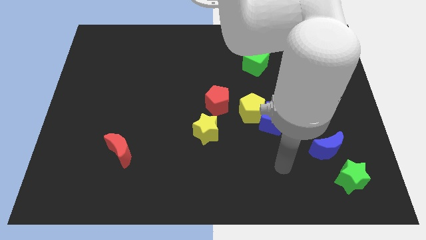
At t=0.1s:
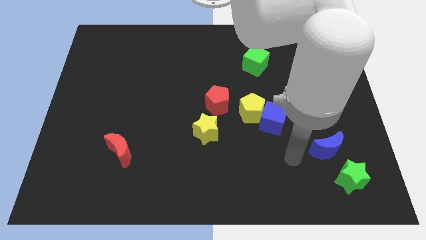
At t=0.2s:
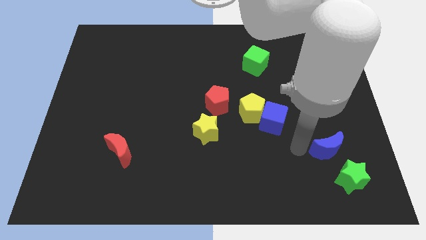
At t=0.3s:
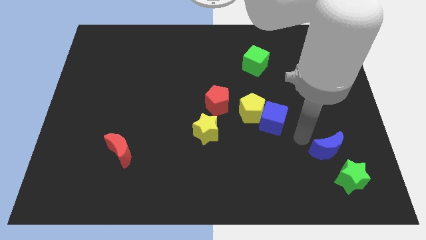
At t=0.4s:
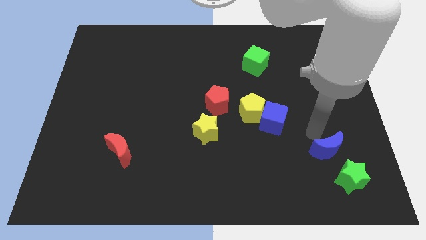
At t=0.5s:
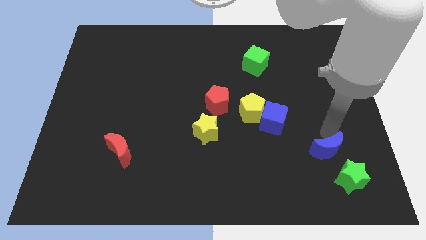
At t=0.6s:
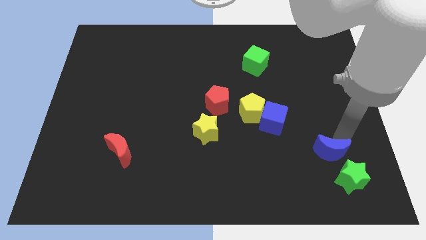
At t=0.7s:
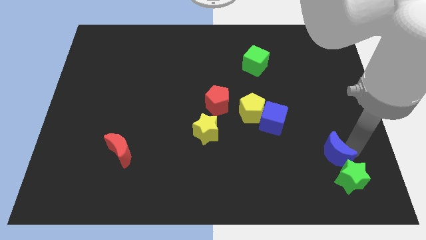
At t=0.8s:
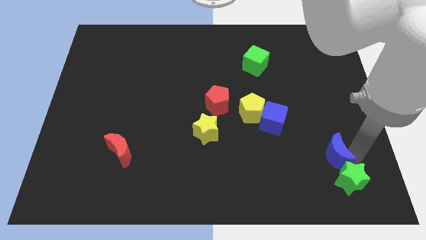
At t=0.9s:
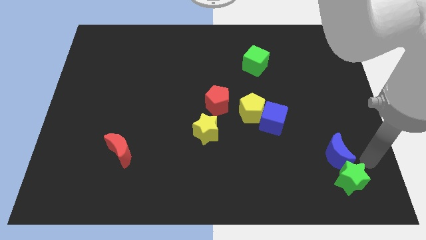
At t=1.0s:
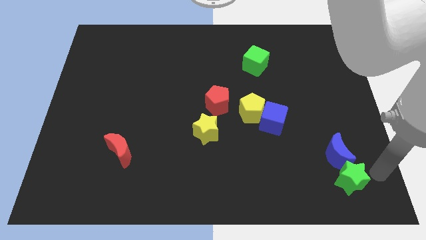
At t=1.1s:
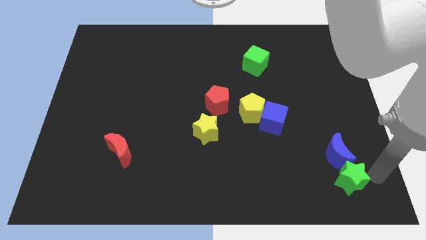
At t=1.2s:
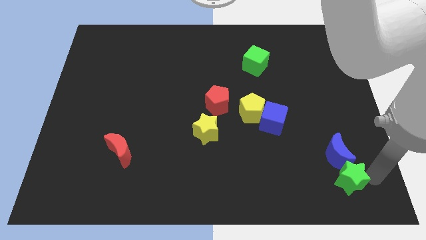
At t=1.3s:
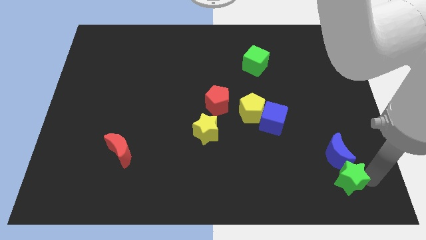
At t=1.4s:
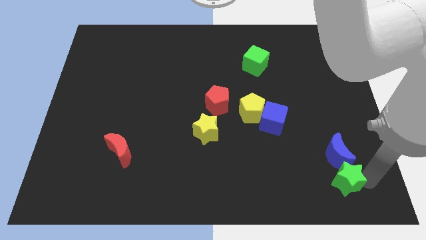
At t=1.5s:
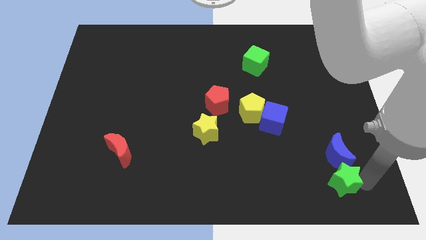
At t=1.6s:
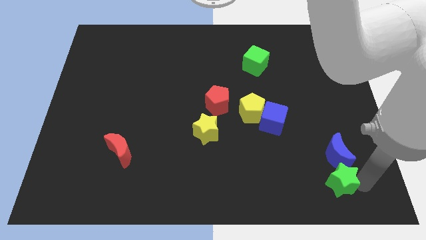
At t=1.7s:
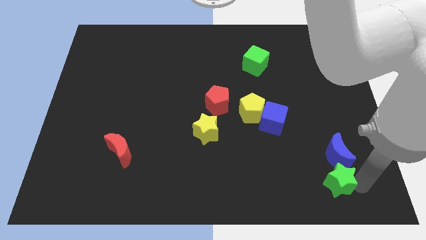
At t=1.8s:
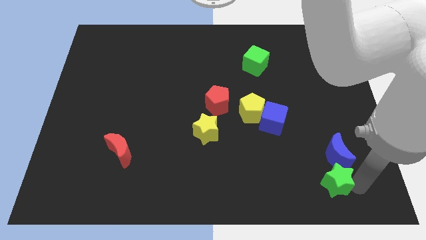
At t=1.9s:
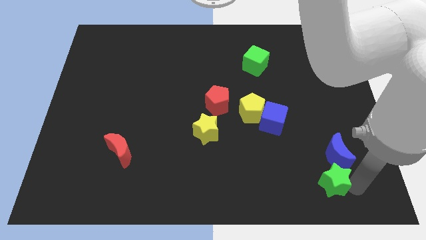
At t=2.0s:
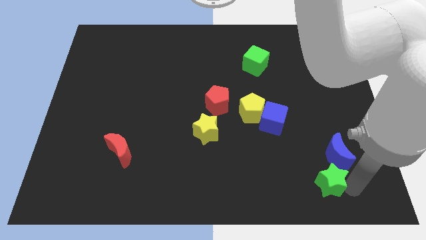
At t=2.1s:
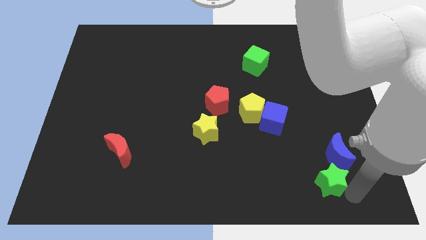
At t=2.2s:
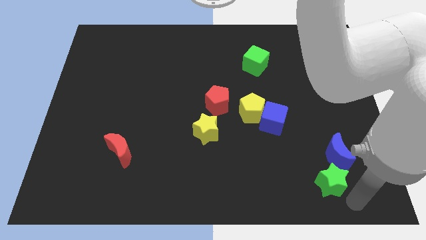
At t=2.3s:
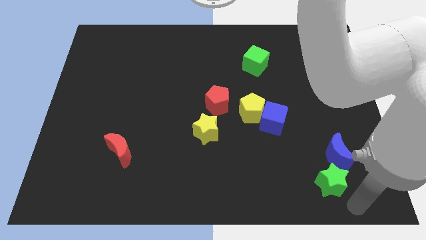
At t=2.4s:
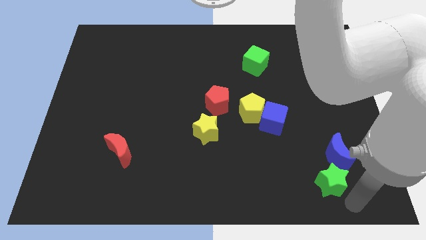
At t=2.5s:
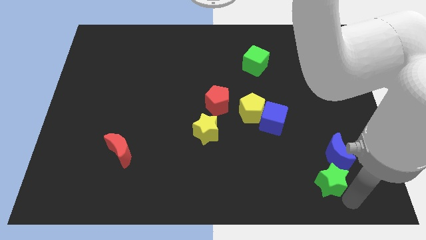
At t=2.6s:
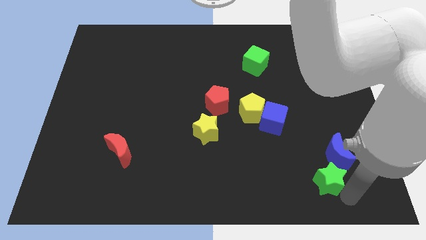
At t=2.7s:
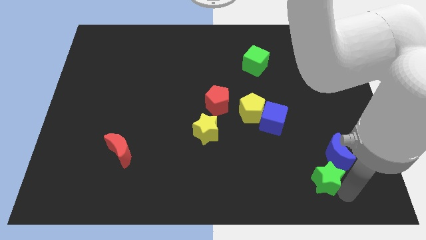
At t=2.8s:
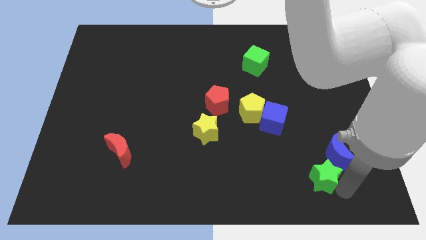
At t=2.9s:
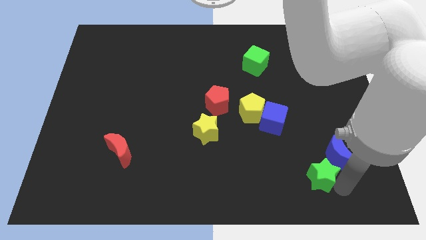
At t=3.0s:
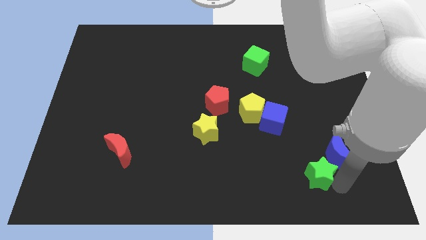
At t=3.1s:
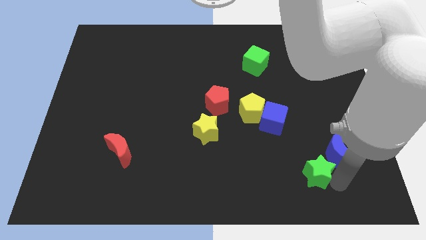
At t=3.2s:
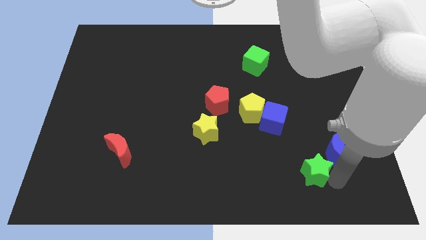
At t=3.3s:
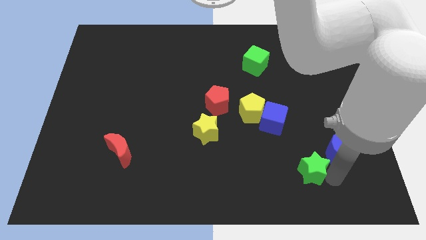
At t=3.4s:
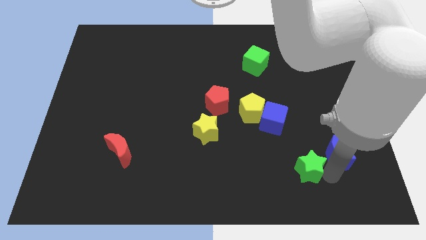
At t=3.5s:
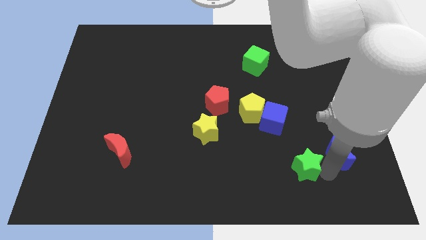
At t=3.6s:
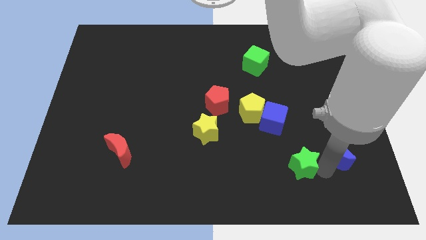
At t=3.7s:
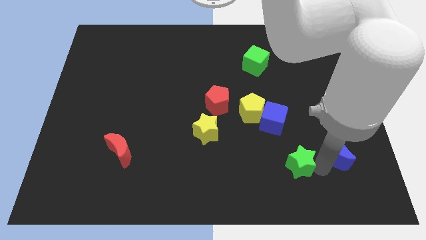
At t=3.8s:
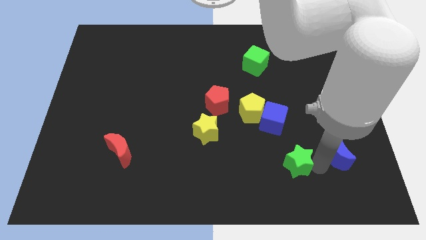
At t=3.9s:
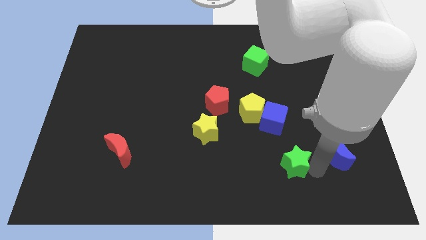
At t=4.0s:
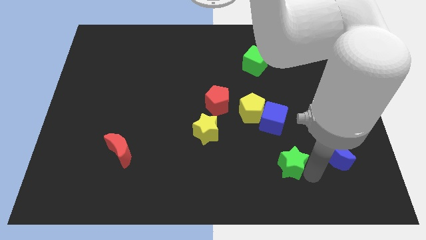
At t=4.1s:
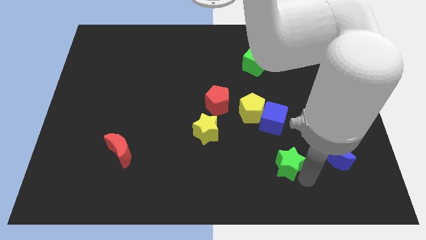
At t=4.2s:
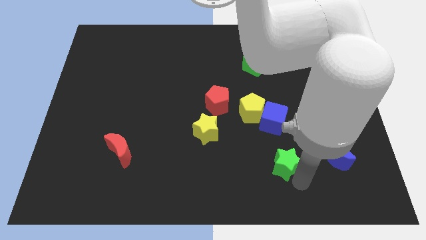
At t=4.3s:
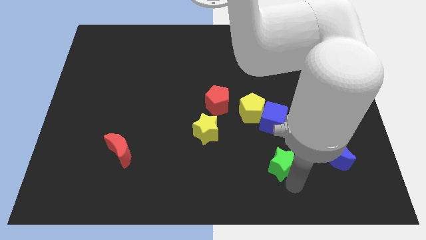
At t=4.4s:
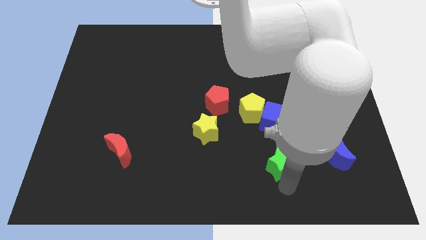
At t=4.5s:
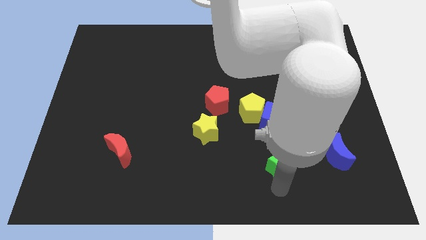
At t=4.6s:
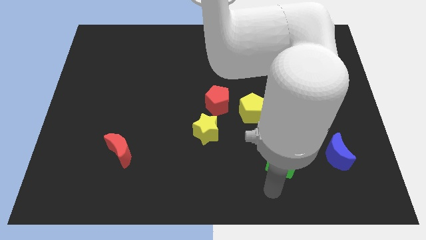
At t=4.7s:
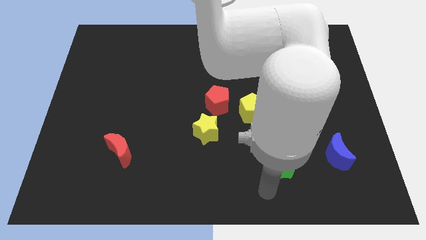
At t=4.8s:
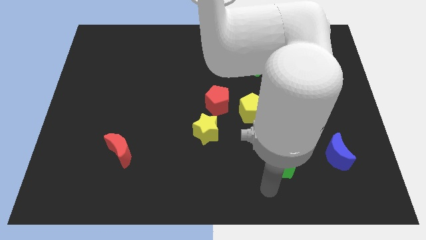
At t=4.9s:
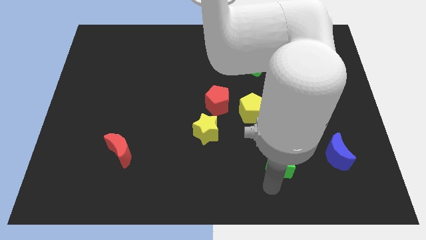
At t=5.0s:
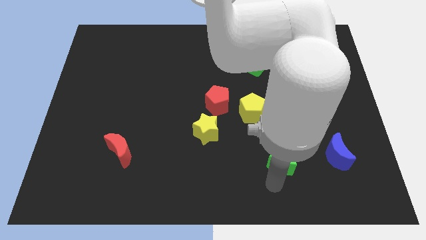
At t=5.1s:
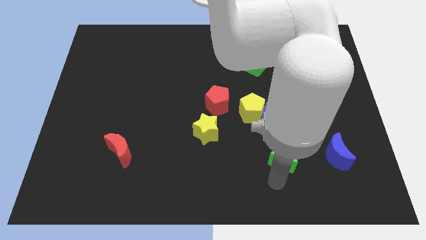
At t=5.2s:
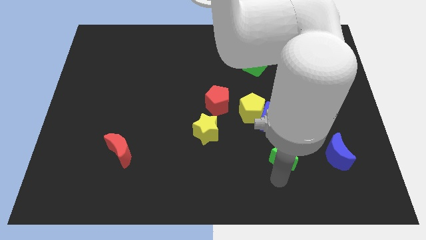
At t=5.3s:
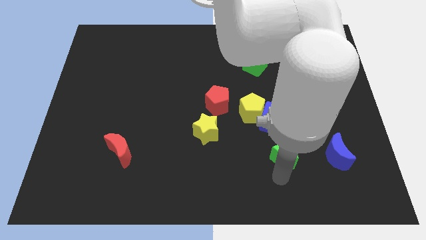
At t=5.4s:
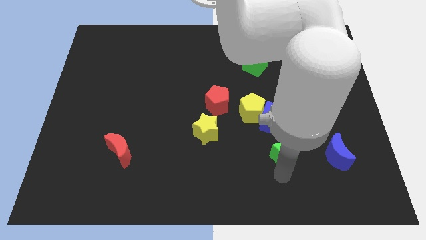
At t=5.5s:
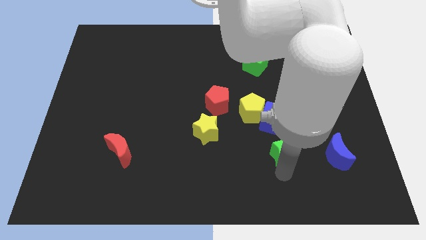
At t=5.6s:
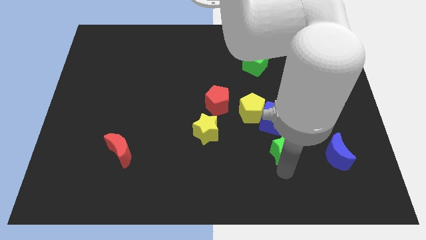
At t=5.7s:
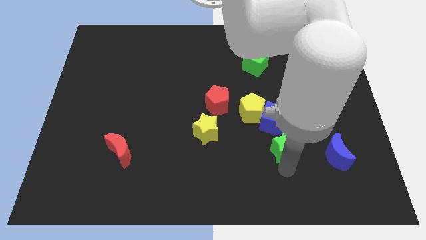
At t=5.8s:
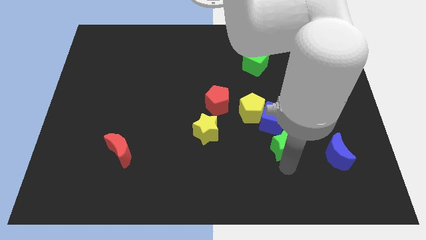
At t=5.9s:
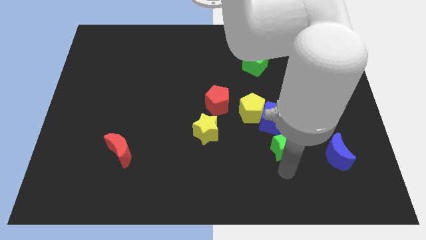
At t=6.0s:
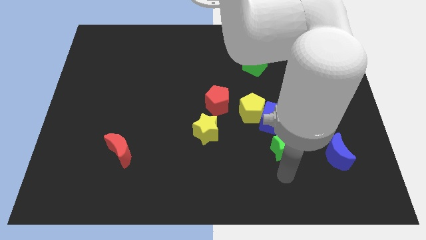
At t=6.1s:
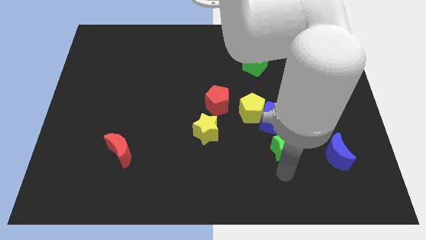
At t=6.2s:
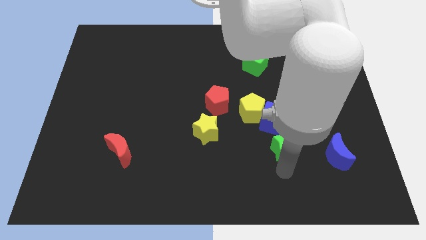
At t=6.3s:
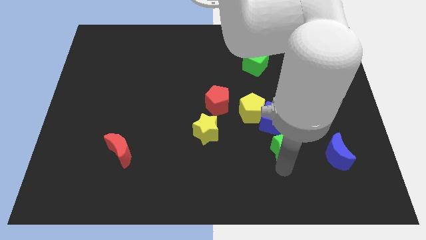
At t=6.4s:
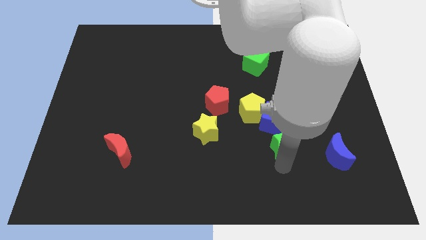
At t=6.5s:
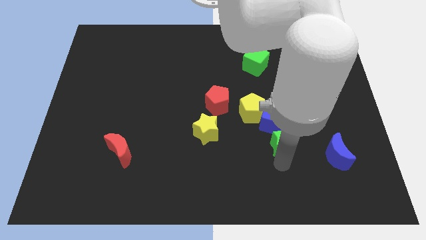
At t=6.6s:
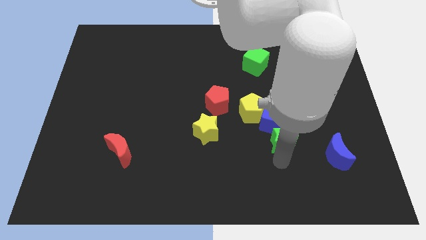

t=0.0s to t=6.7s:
push the green star towards the blue cube
